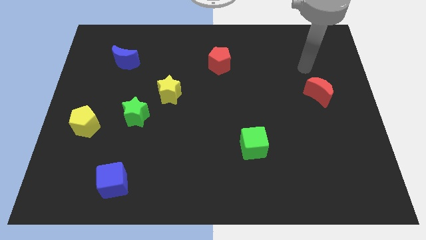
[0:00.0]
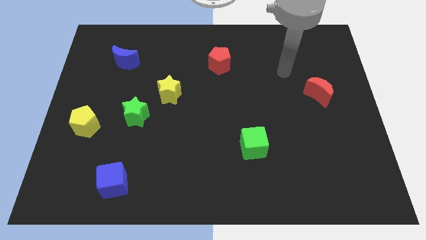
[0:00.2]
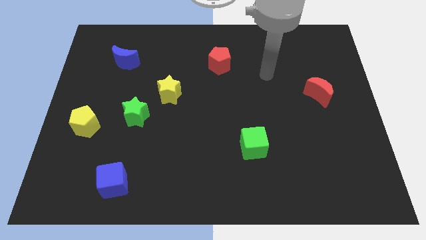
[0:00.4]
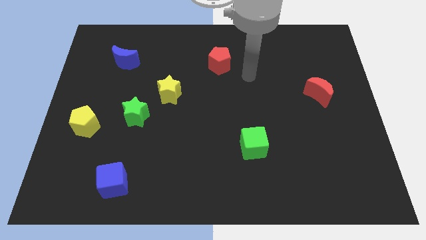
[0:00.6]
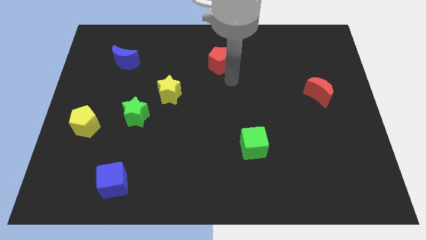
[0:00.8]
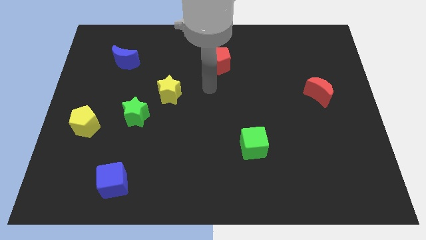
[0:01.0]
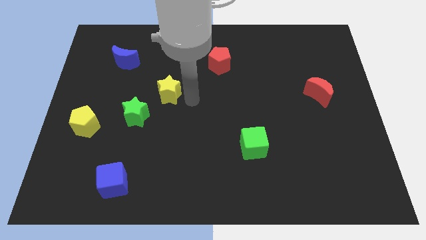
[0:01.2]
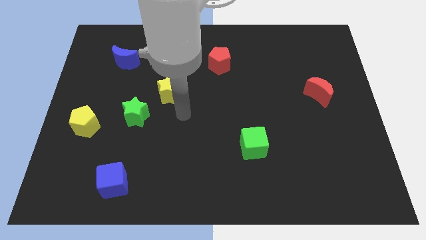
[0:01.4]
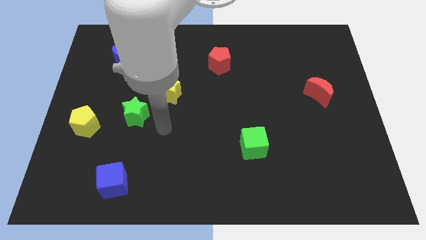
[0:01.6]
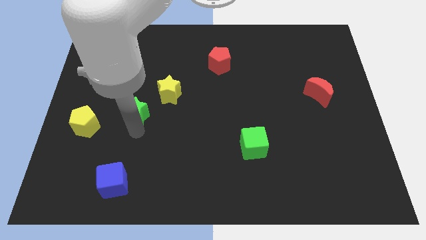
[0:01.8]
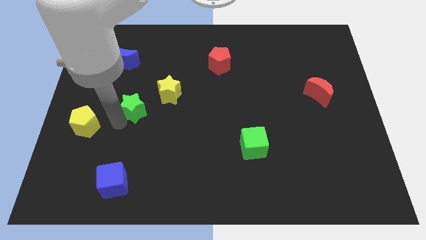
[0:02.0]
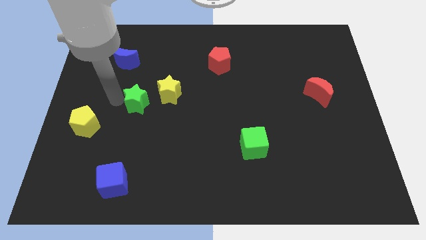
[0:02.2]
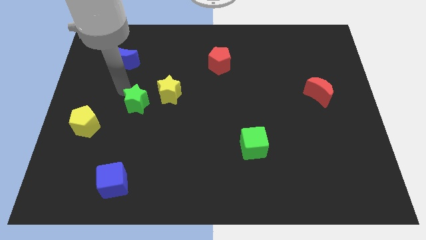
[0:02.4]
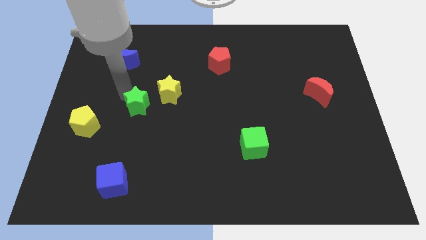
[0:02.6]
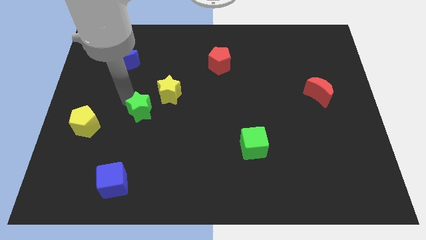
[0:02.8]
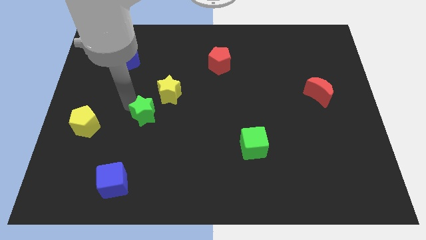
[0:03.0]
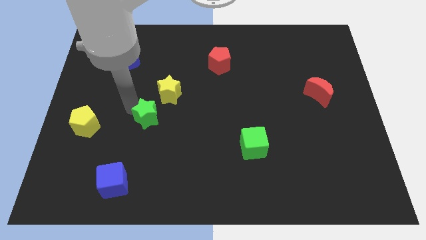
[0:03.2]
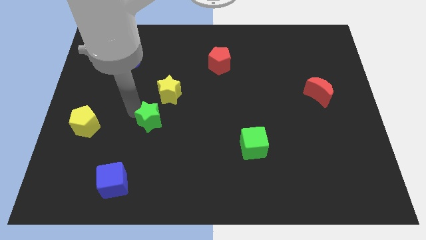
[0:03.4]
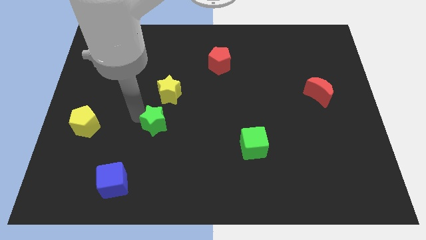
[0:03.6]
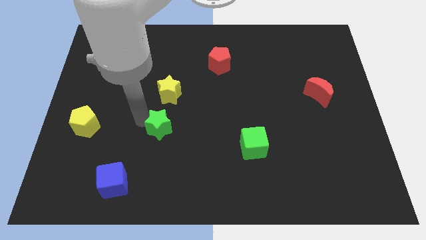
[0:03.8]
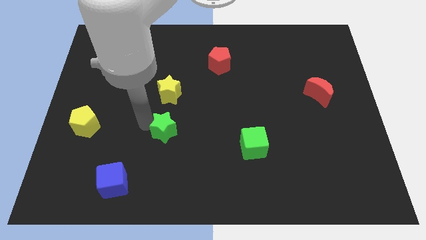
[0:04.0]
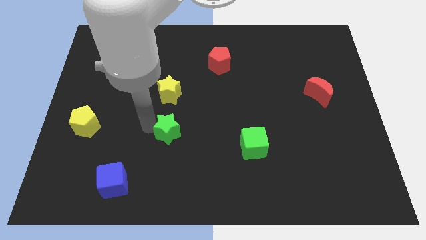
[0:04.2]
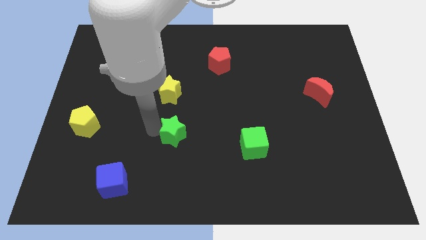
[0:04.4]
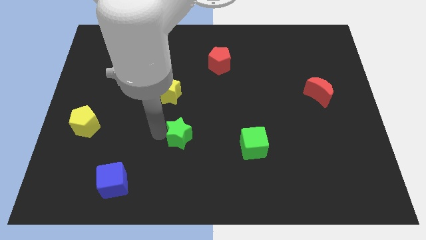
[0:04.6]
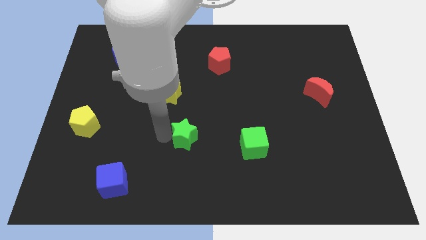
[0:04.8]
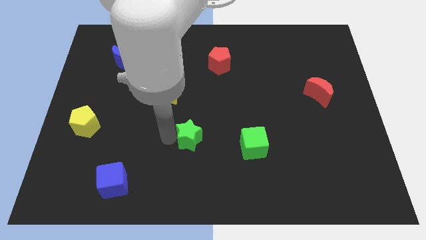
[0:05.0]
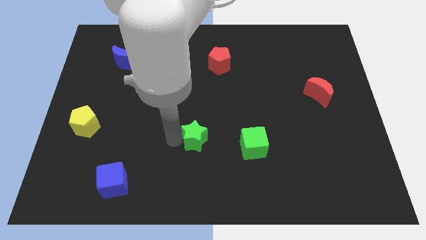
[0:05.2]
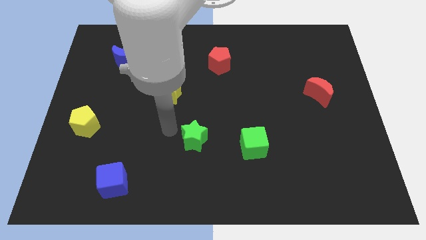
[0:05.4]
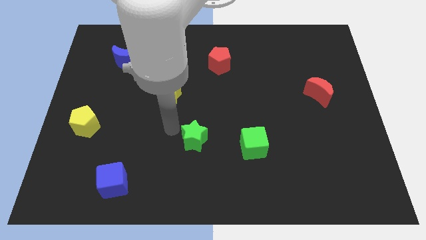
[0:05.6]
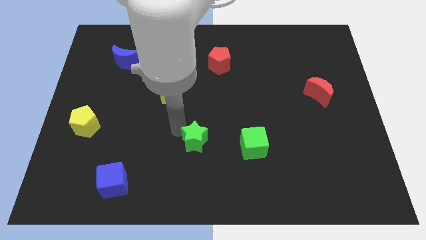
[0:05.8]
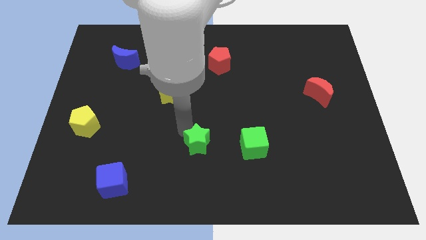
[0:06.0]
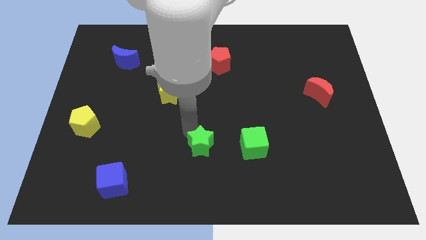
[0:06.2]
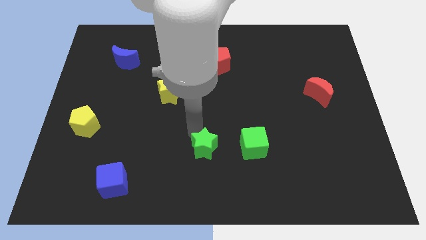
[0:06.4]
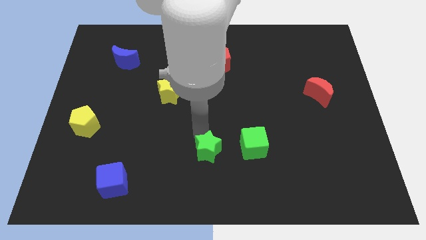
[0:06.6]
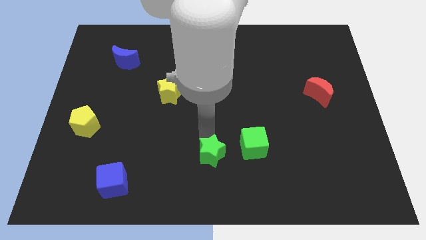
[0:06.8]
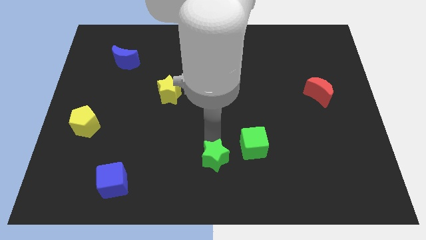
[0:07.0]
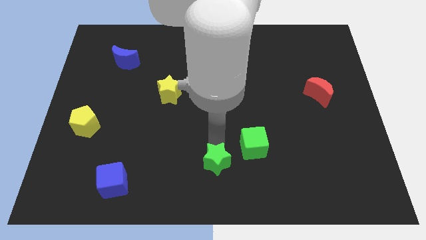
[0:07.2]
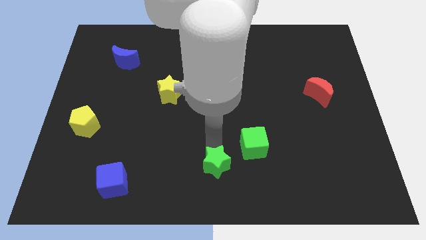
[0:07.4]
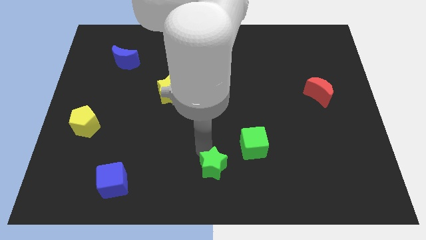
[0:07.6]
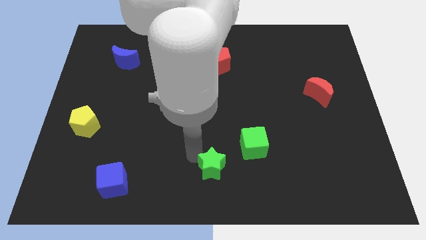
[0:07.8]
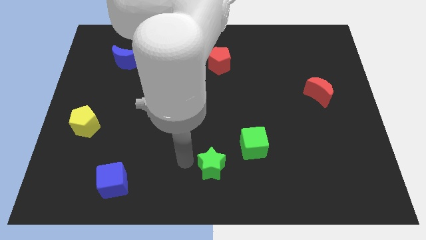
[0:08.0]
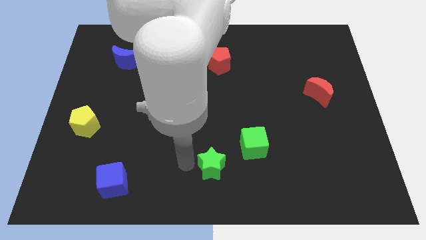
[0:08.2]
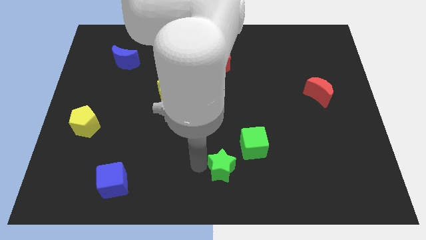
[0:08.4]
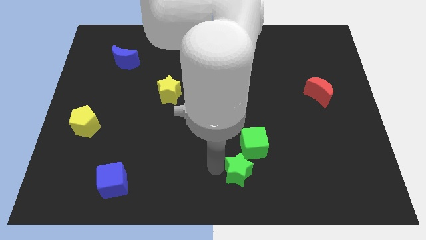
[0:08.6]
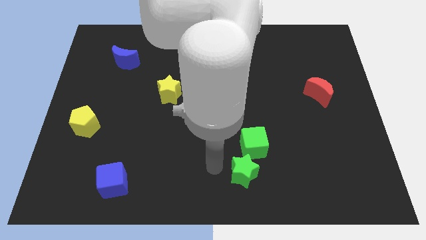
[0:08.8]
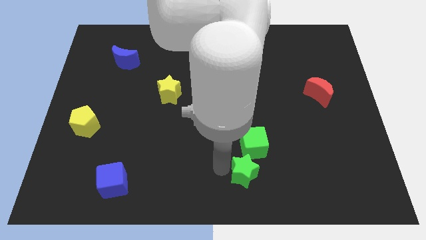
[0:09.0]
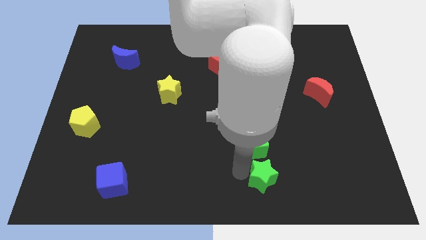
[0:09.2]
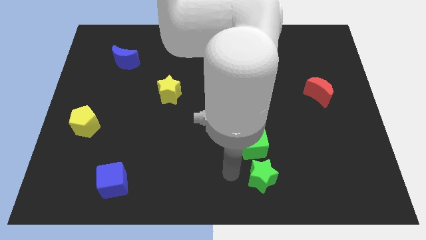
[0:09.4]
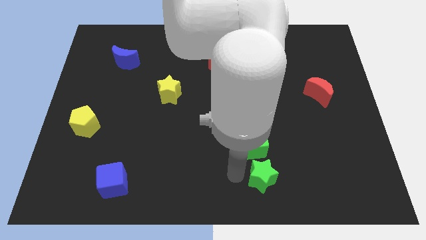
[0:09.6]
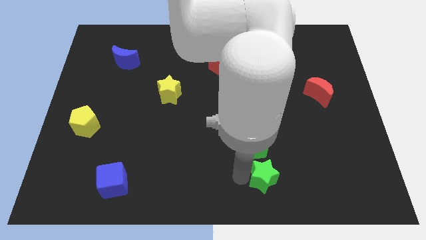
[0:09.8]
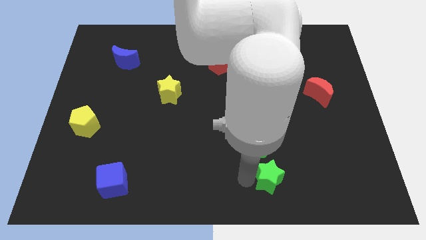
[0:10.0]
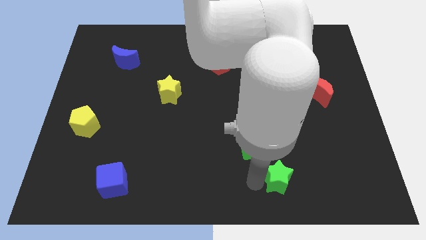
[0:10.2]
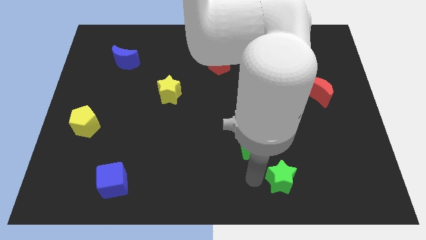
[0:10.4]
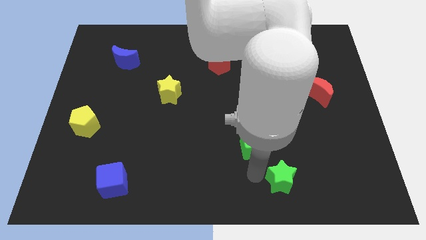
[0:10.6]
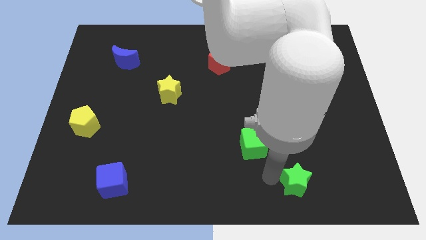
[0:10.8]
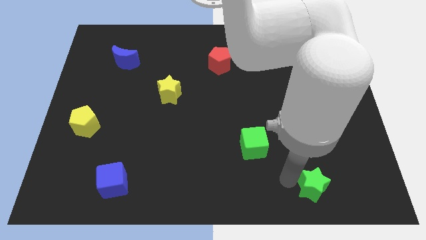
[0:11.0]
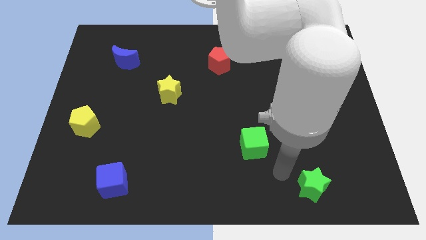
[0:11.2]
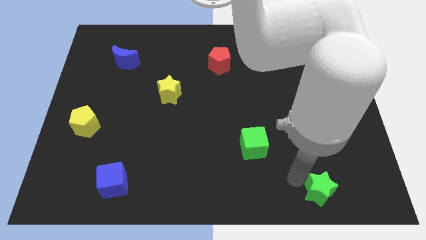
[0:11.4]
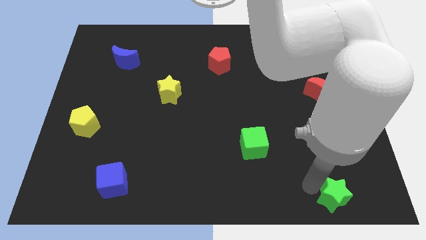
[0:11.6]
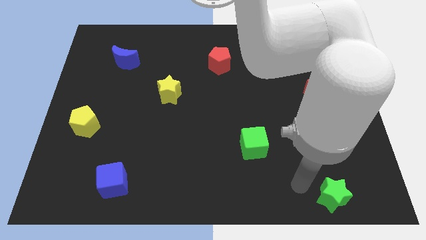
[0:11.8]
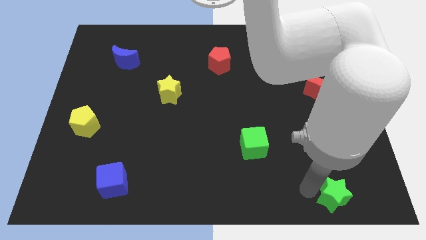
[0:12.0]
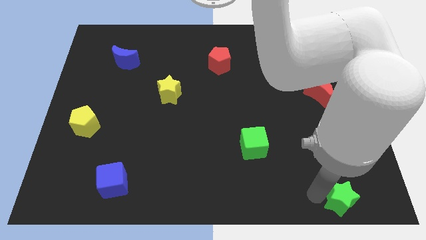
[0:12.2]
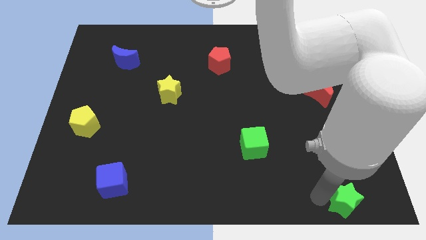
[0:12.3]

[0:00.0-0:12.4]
move the green star to the bottom right

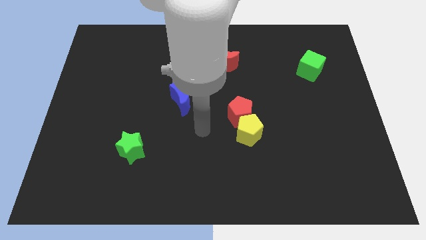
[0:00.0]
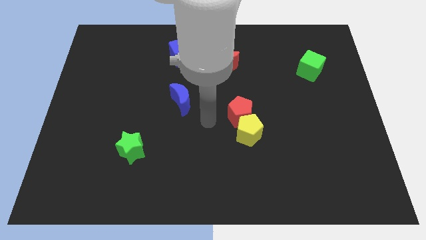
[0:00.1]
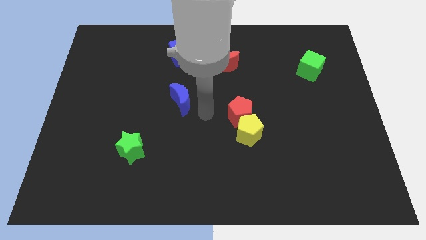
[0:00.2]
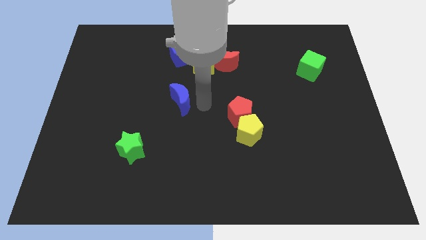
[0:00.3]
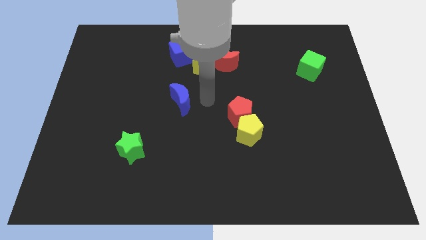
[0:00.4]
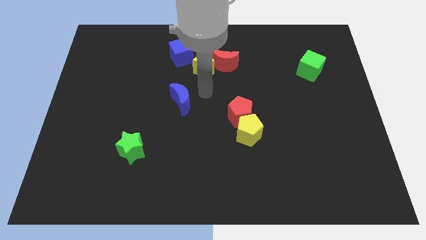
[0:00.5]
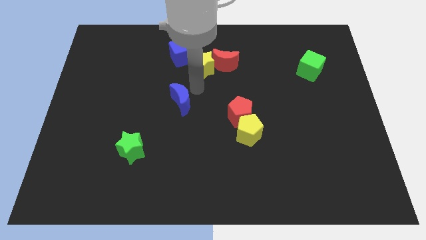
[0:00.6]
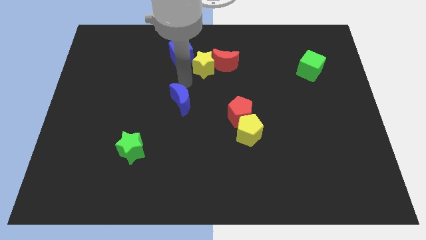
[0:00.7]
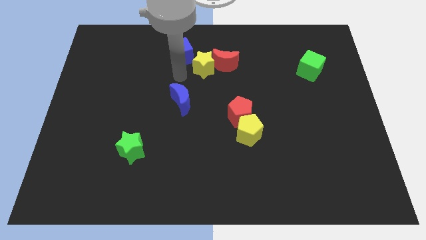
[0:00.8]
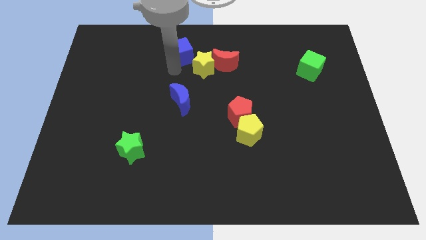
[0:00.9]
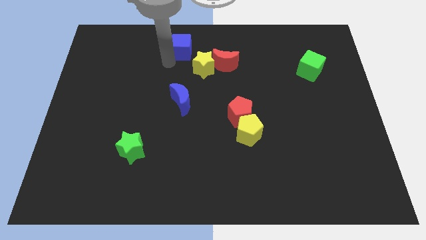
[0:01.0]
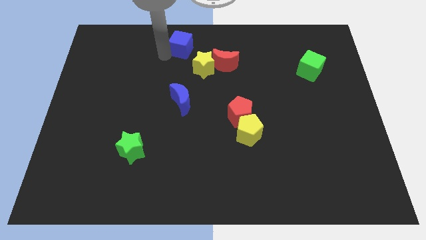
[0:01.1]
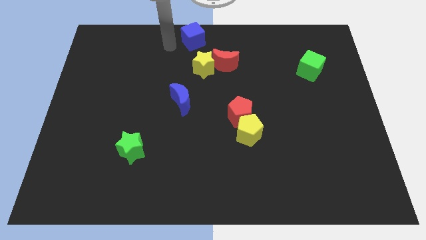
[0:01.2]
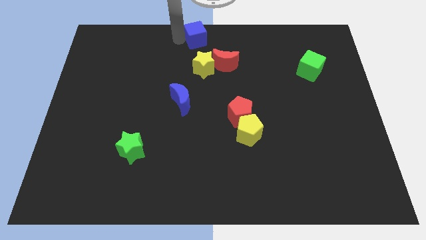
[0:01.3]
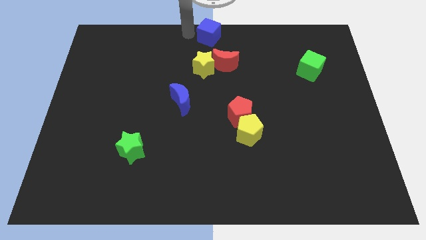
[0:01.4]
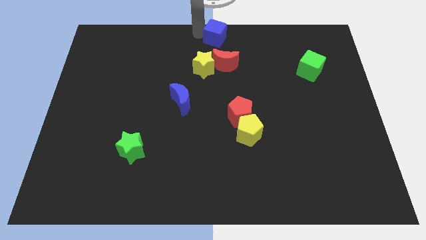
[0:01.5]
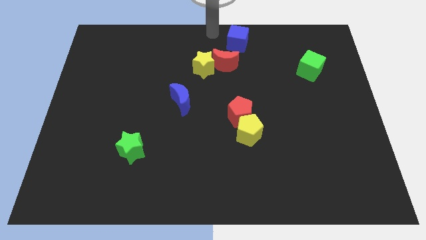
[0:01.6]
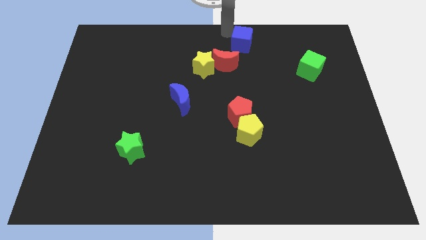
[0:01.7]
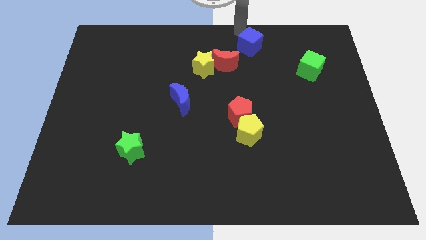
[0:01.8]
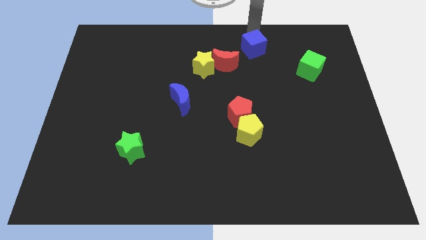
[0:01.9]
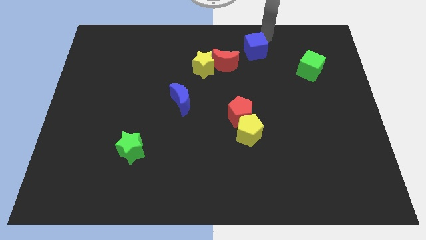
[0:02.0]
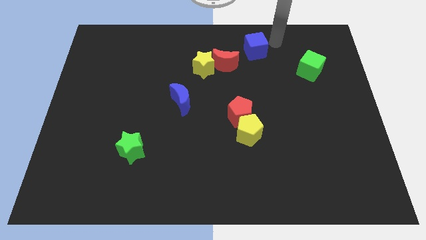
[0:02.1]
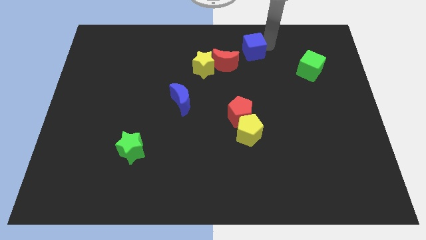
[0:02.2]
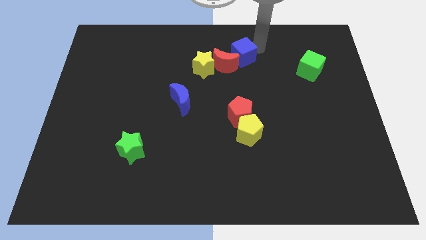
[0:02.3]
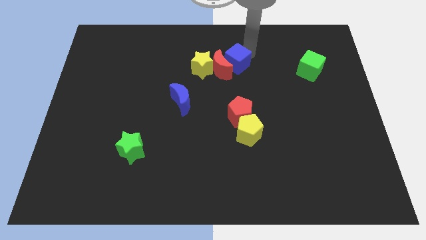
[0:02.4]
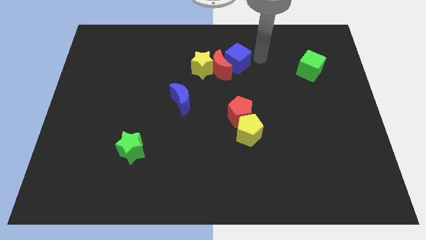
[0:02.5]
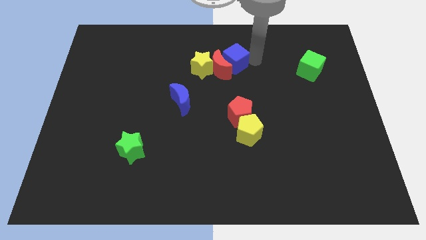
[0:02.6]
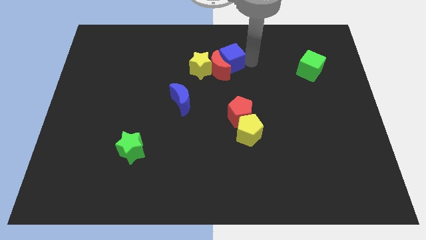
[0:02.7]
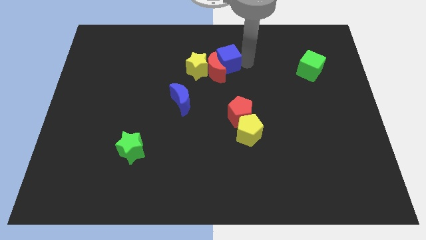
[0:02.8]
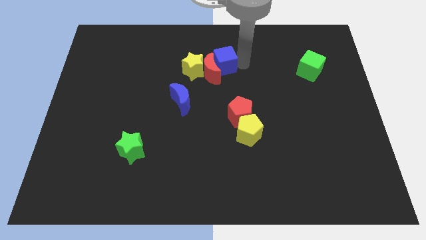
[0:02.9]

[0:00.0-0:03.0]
slide the blue cube to the middle of the board
